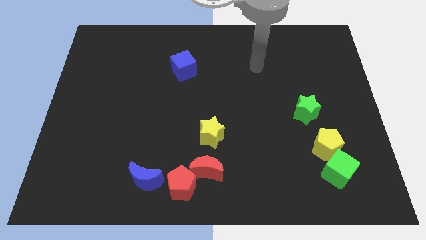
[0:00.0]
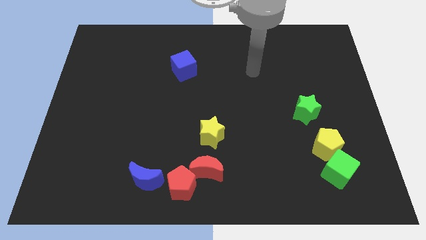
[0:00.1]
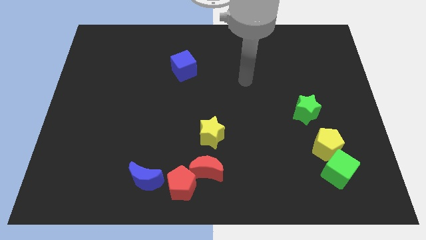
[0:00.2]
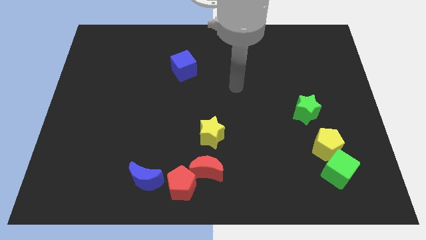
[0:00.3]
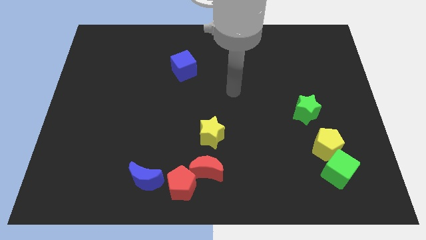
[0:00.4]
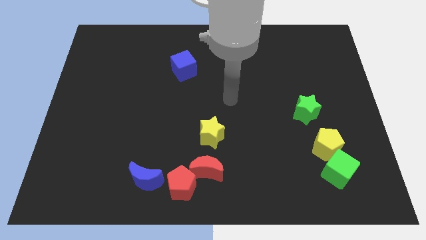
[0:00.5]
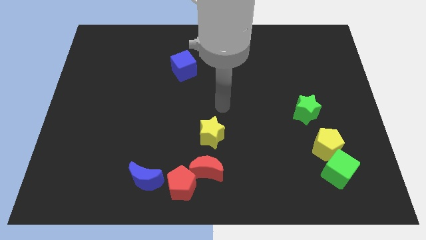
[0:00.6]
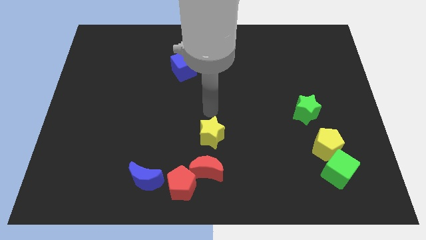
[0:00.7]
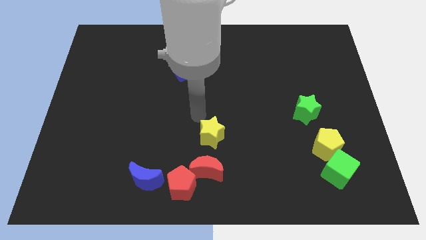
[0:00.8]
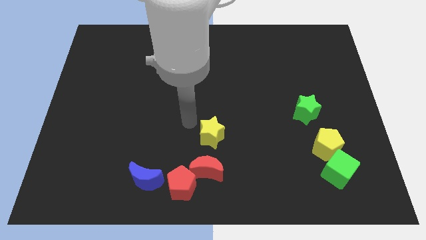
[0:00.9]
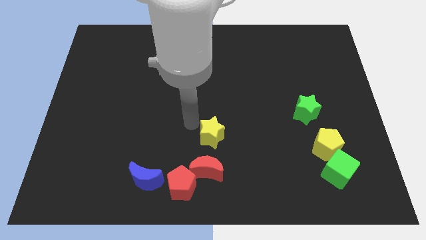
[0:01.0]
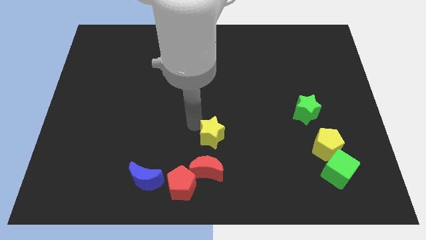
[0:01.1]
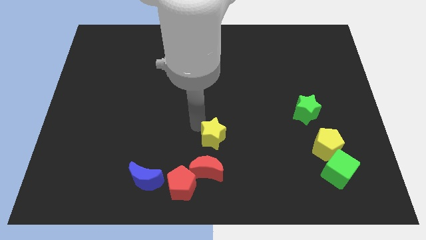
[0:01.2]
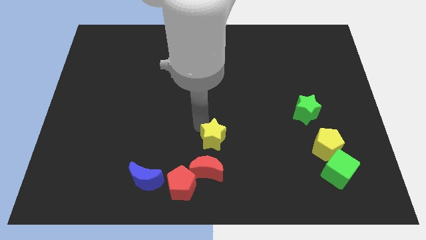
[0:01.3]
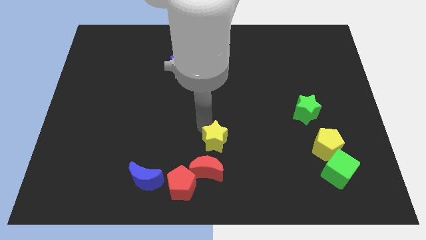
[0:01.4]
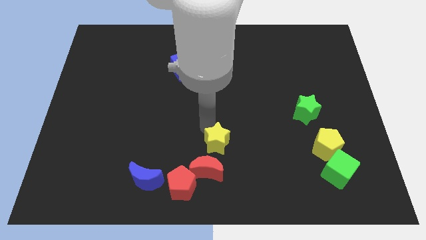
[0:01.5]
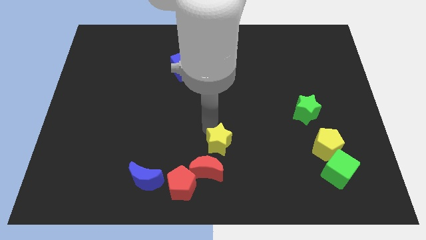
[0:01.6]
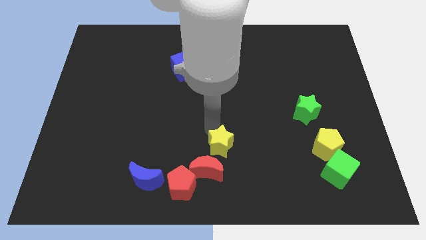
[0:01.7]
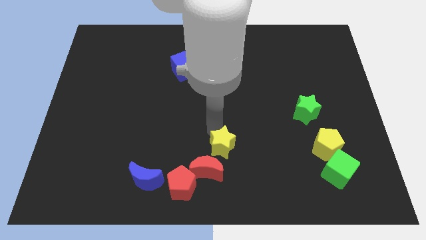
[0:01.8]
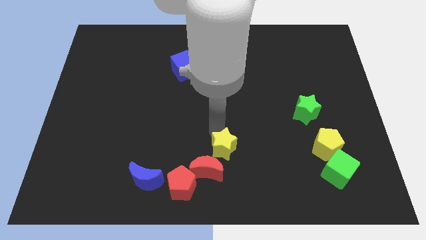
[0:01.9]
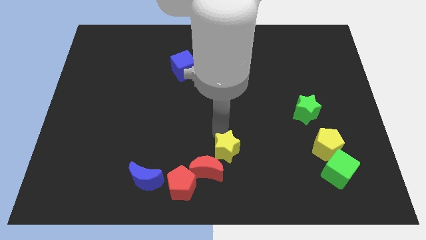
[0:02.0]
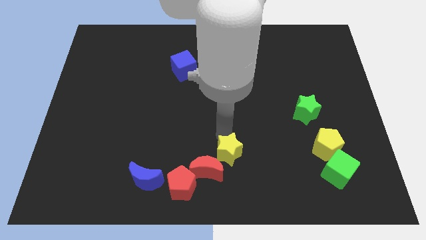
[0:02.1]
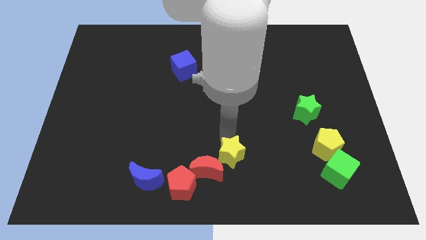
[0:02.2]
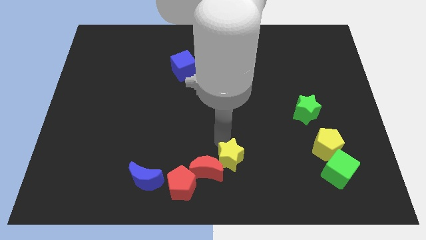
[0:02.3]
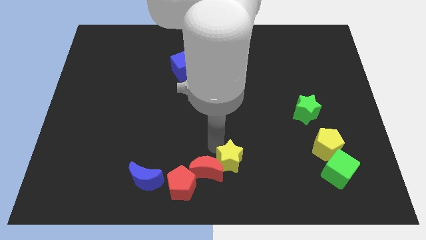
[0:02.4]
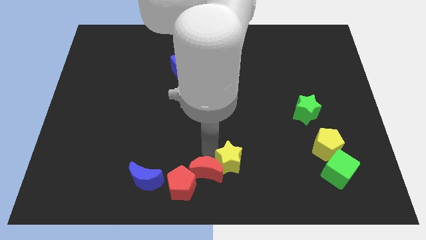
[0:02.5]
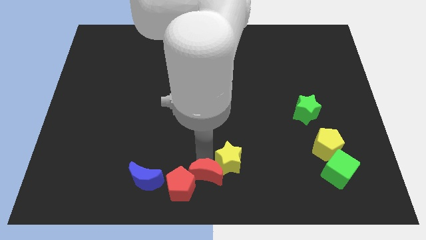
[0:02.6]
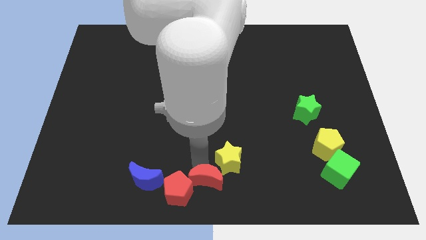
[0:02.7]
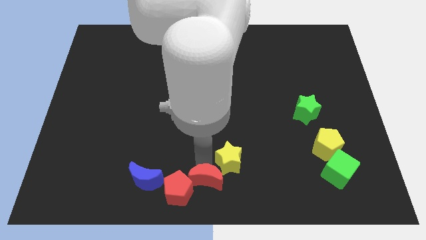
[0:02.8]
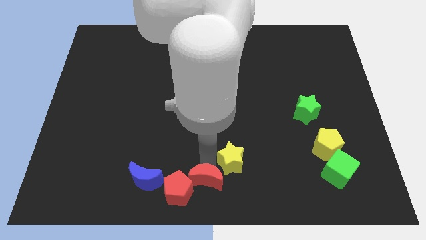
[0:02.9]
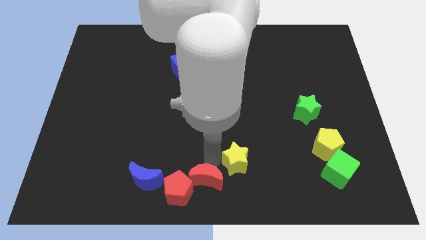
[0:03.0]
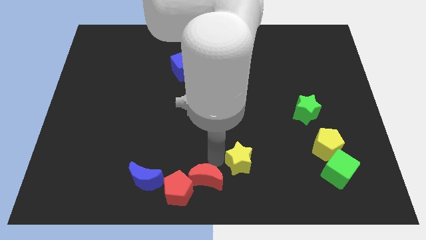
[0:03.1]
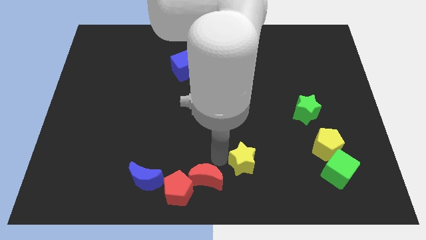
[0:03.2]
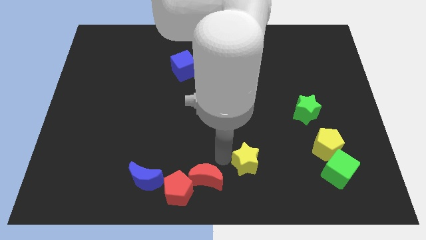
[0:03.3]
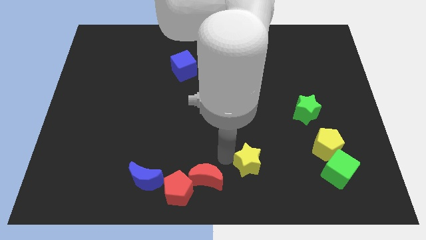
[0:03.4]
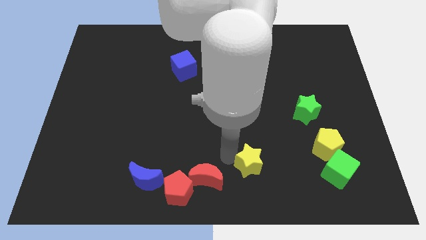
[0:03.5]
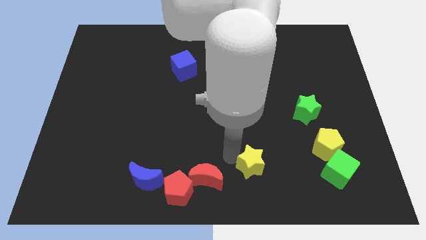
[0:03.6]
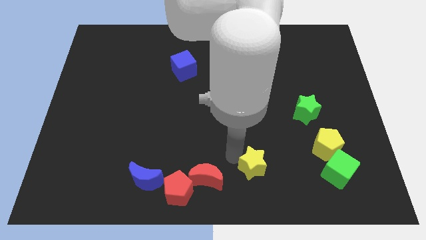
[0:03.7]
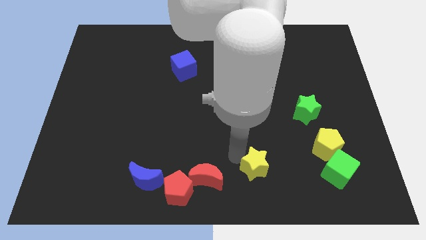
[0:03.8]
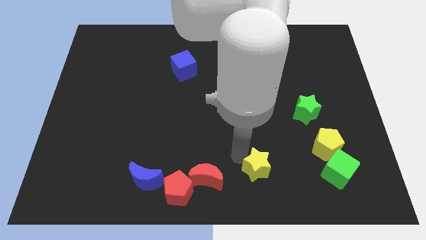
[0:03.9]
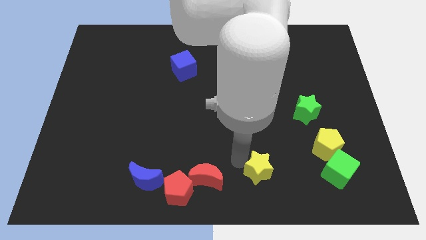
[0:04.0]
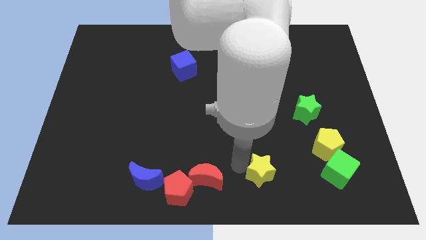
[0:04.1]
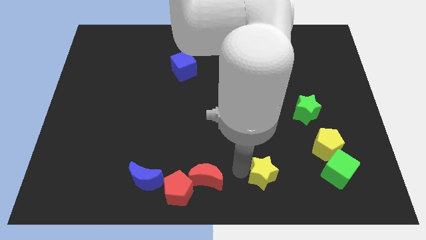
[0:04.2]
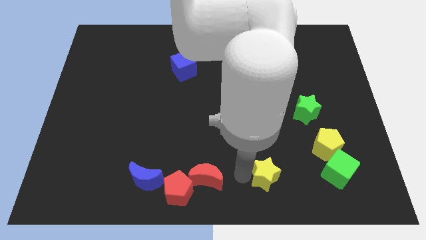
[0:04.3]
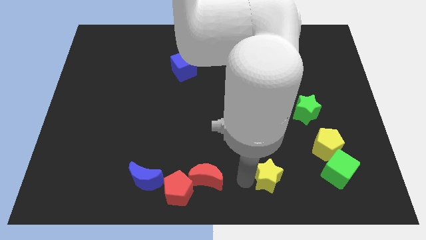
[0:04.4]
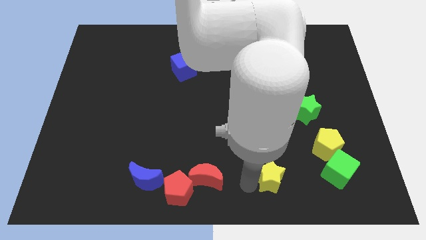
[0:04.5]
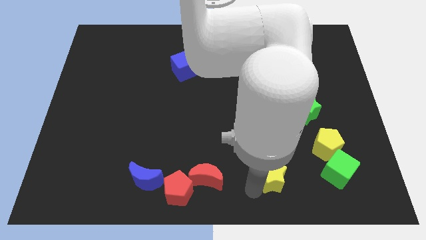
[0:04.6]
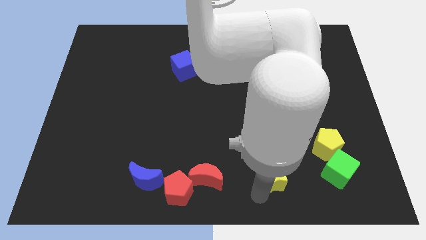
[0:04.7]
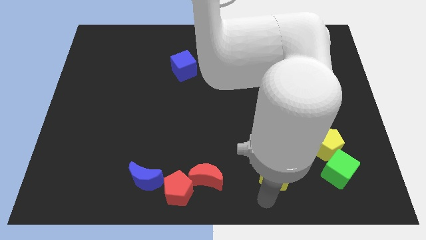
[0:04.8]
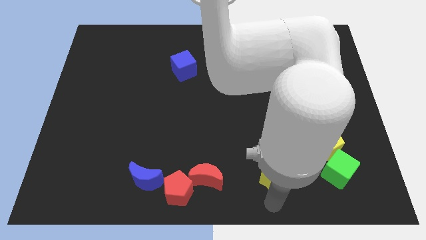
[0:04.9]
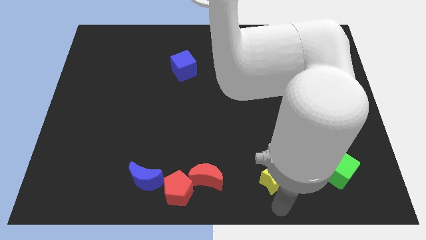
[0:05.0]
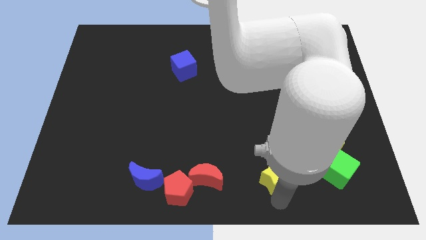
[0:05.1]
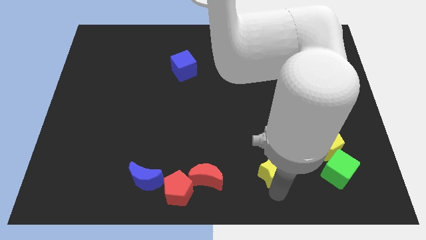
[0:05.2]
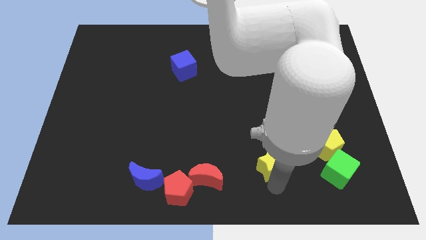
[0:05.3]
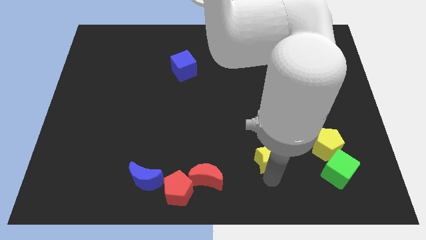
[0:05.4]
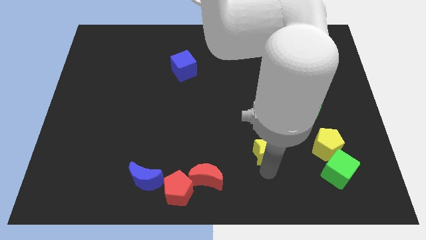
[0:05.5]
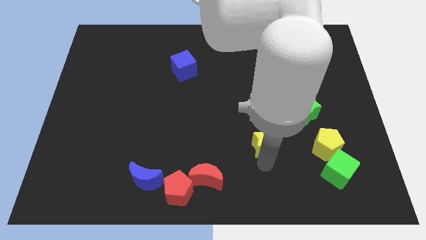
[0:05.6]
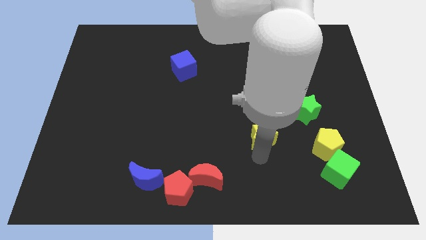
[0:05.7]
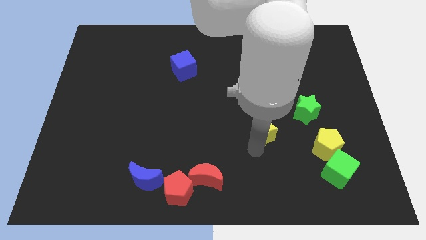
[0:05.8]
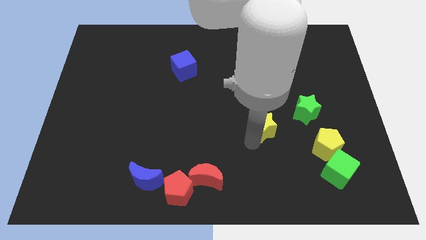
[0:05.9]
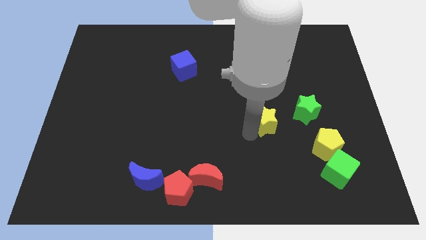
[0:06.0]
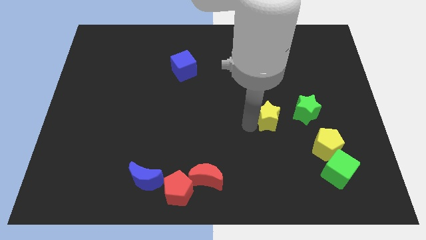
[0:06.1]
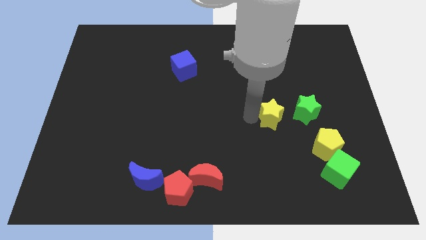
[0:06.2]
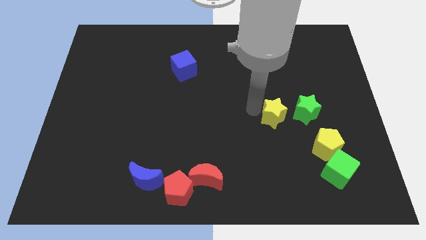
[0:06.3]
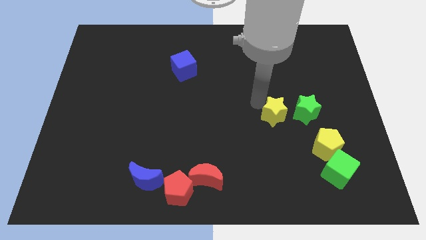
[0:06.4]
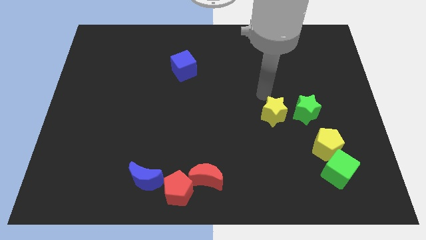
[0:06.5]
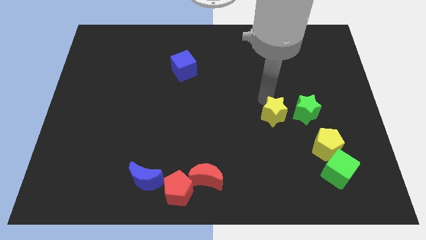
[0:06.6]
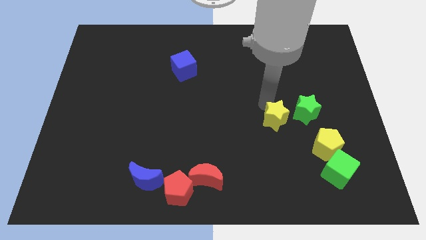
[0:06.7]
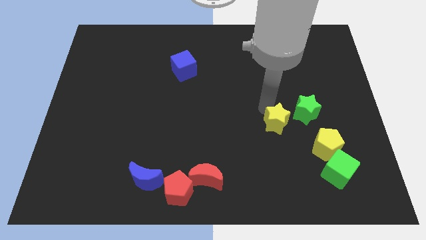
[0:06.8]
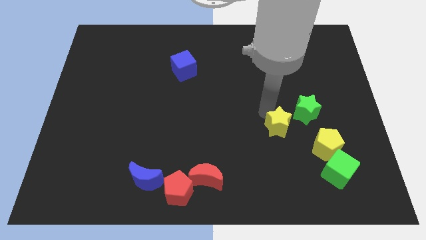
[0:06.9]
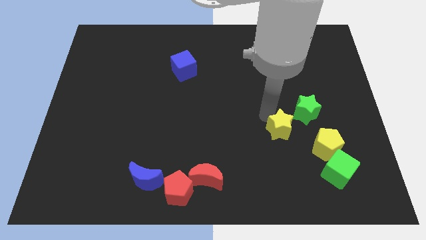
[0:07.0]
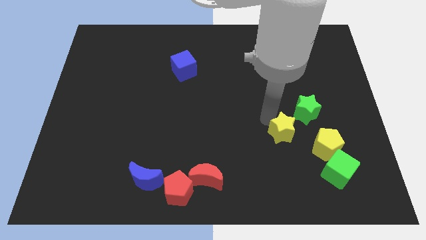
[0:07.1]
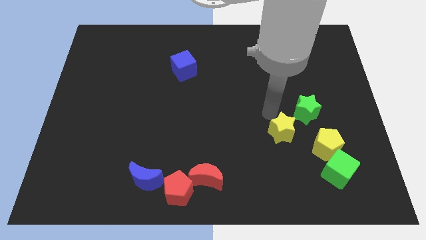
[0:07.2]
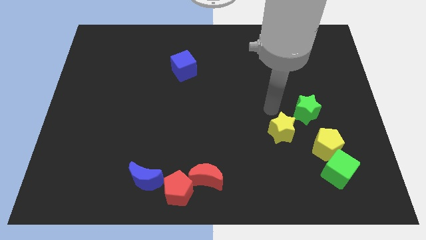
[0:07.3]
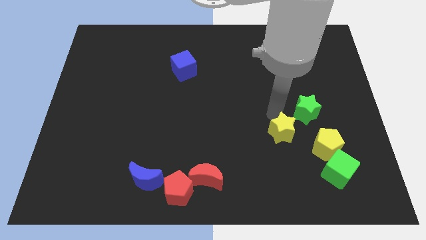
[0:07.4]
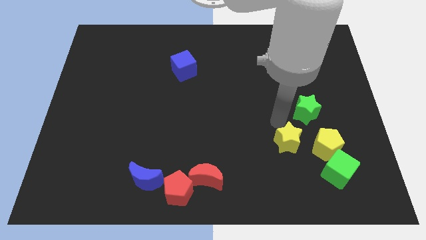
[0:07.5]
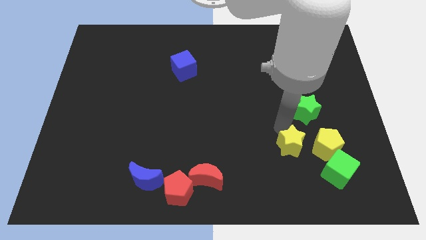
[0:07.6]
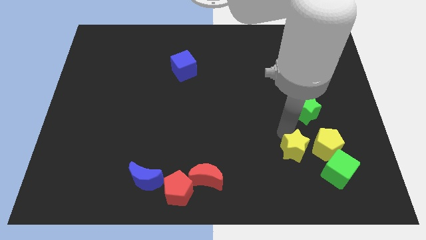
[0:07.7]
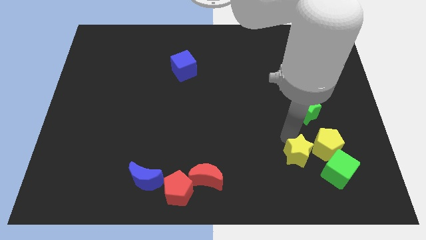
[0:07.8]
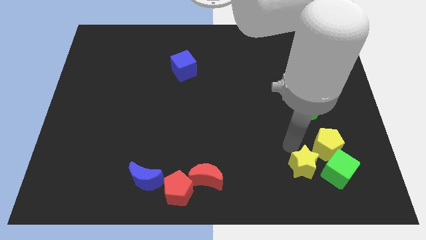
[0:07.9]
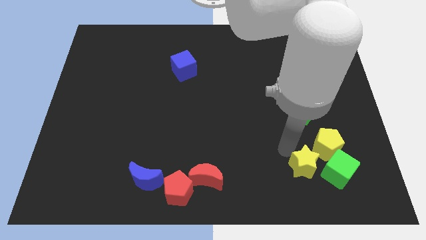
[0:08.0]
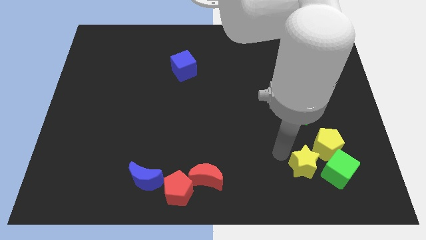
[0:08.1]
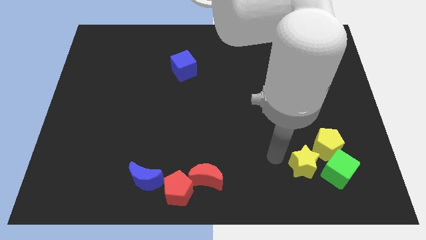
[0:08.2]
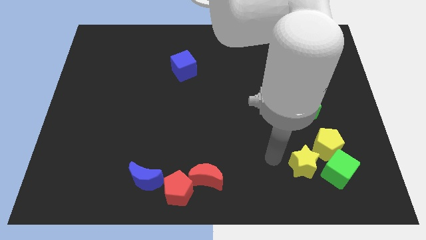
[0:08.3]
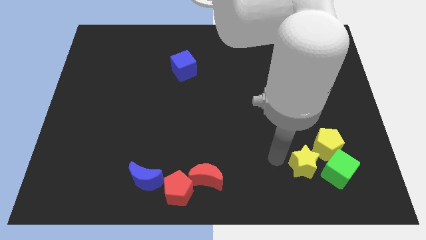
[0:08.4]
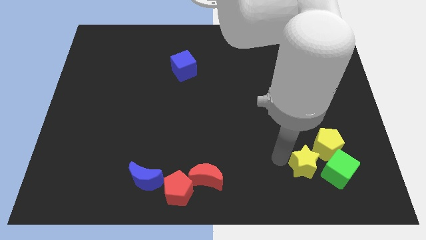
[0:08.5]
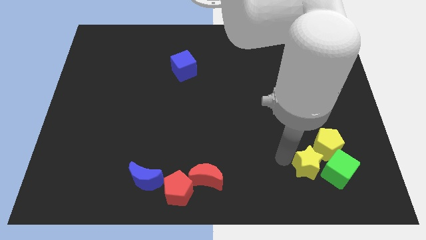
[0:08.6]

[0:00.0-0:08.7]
move the yellow star to the green cube
